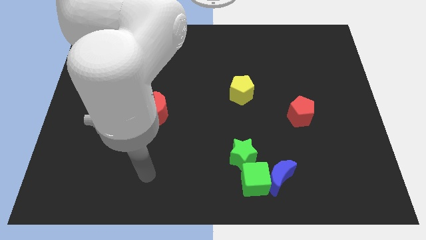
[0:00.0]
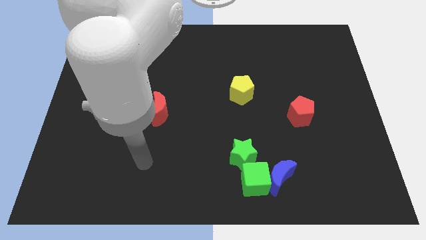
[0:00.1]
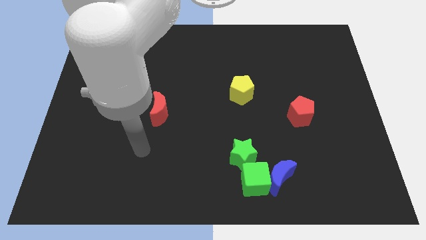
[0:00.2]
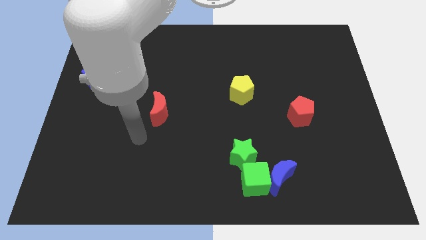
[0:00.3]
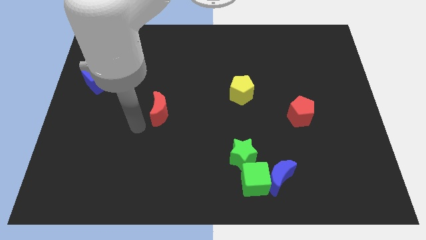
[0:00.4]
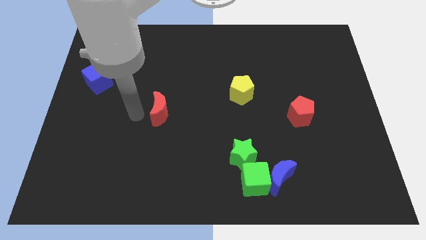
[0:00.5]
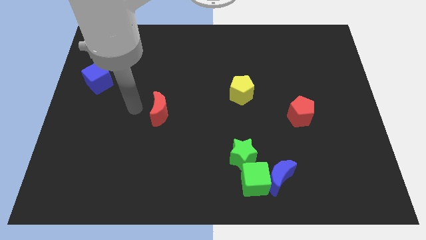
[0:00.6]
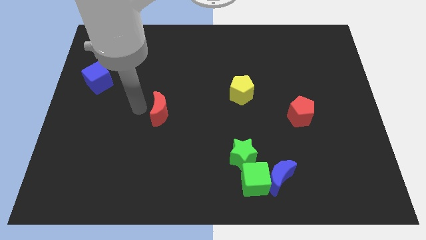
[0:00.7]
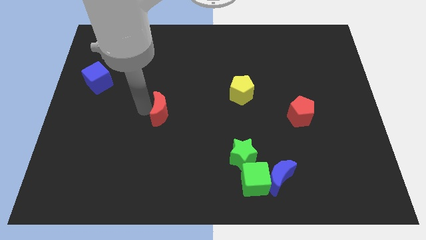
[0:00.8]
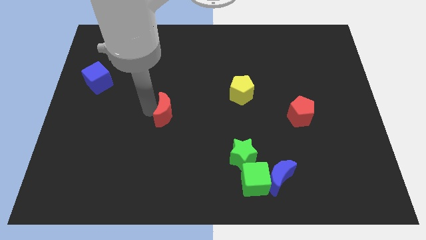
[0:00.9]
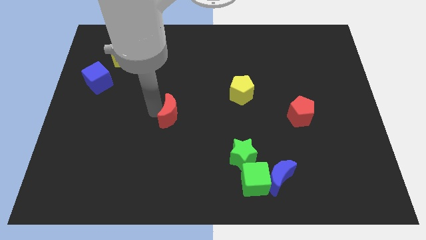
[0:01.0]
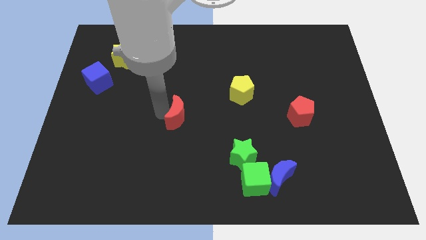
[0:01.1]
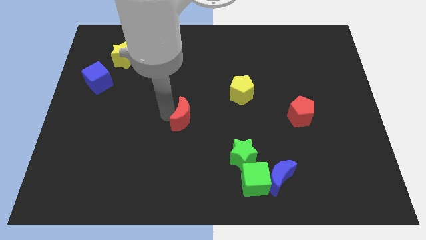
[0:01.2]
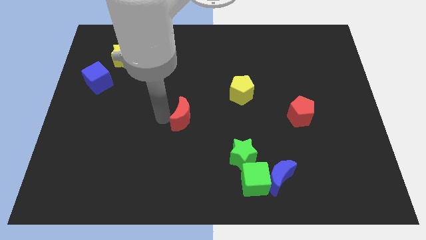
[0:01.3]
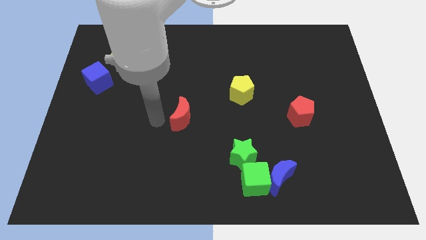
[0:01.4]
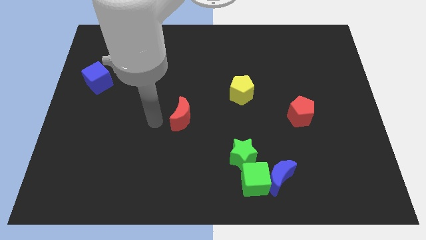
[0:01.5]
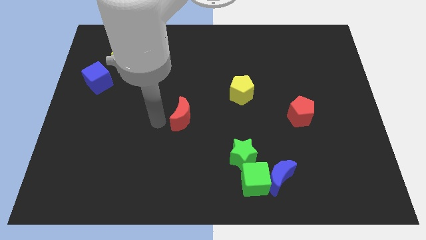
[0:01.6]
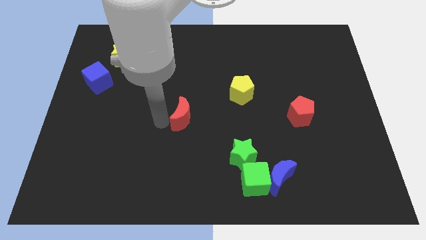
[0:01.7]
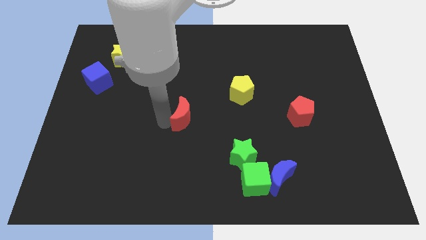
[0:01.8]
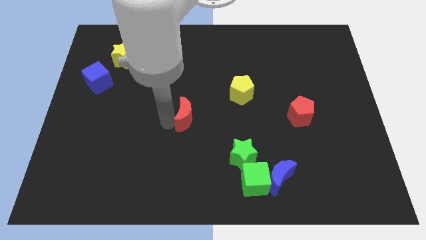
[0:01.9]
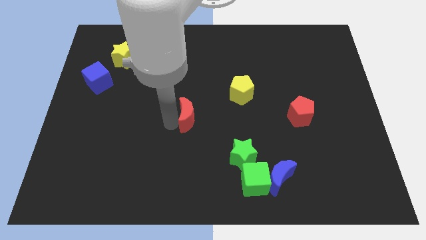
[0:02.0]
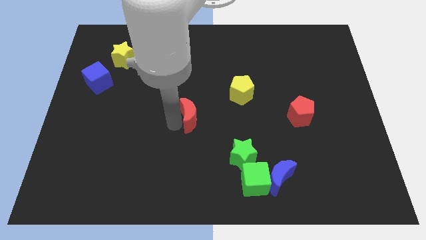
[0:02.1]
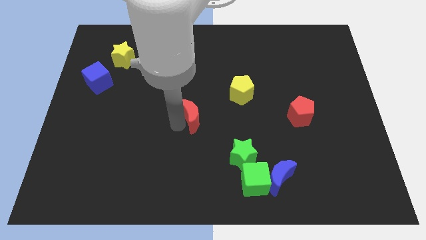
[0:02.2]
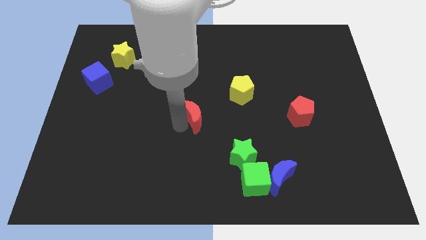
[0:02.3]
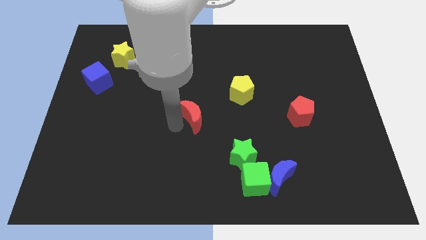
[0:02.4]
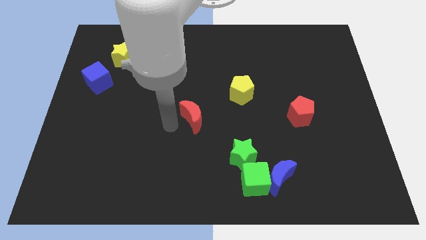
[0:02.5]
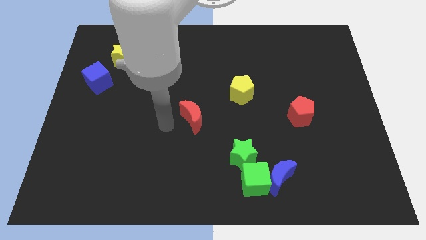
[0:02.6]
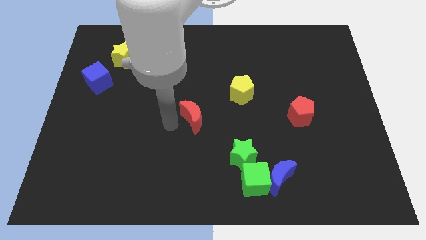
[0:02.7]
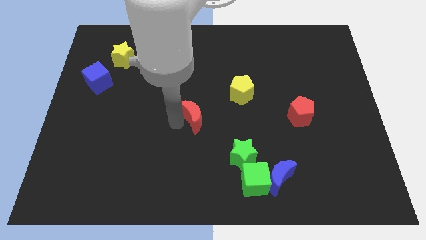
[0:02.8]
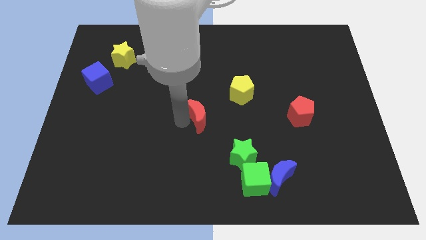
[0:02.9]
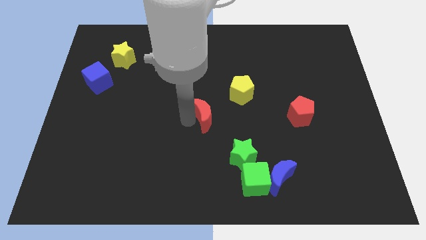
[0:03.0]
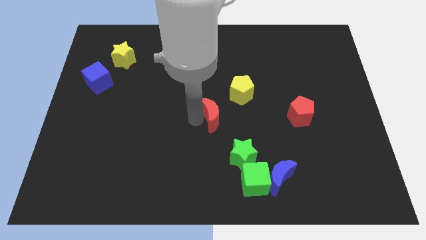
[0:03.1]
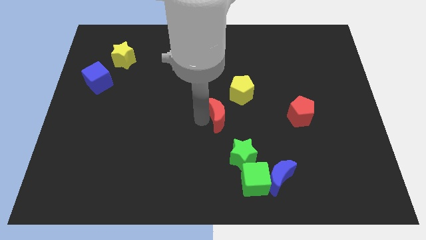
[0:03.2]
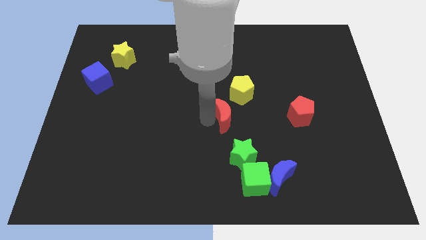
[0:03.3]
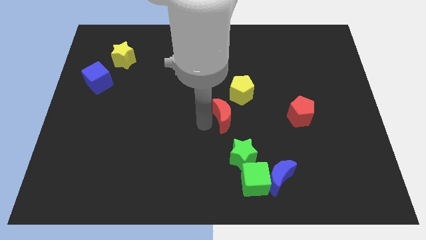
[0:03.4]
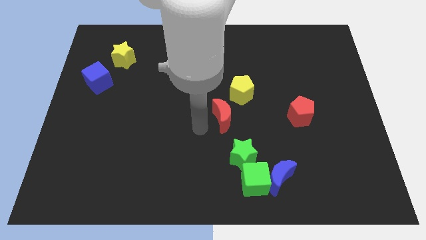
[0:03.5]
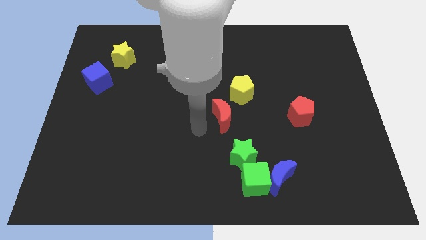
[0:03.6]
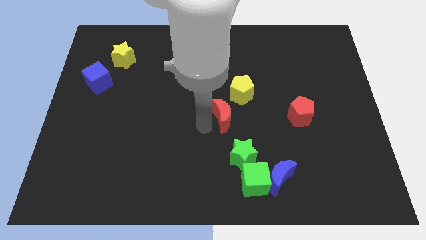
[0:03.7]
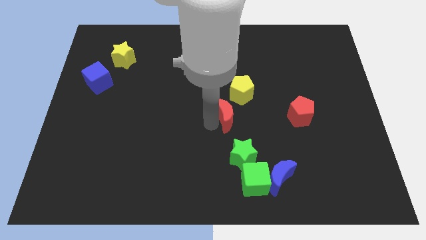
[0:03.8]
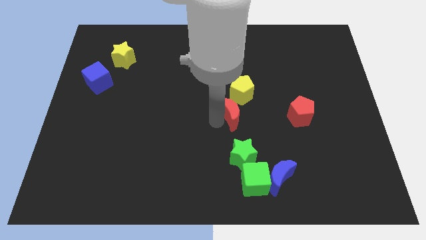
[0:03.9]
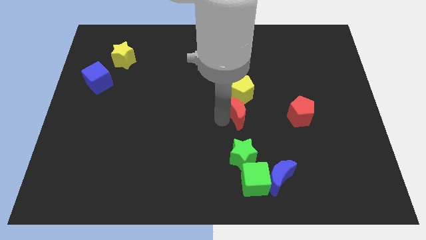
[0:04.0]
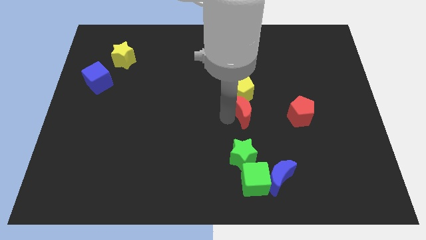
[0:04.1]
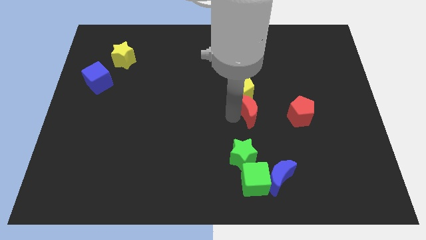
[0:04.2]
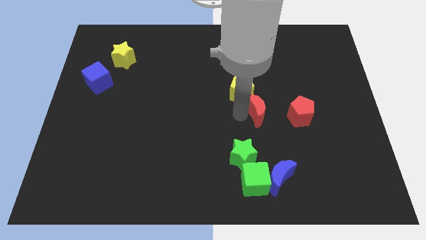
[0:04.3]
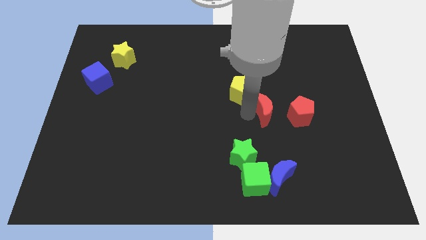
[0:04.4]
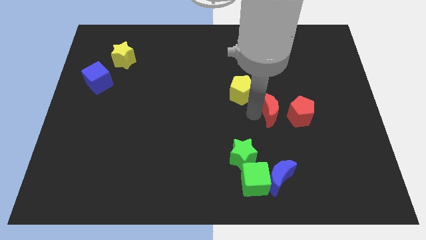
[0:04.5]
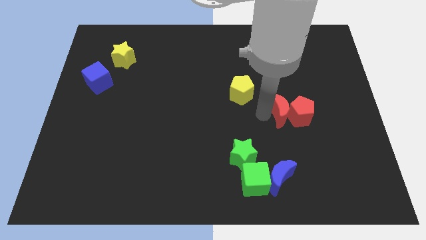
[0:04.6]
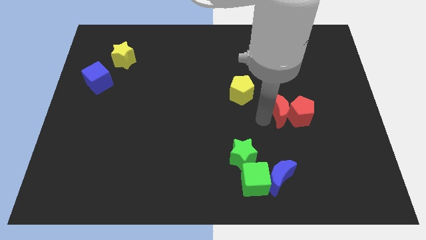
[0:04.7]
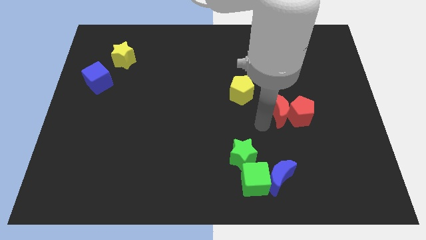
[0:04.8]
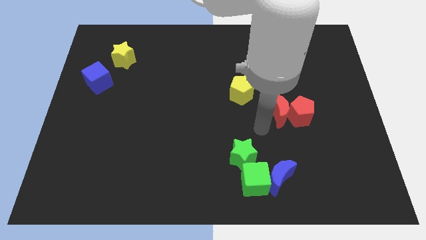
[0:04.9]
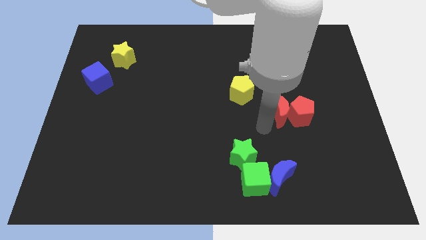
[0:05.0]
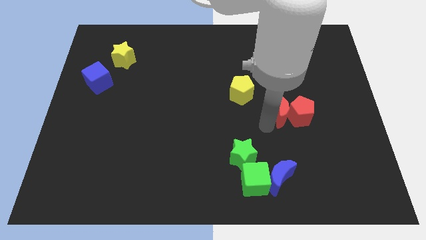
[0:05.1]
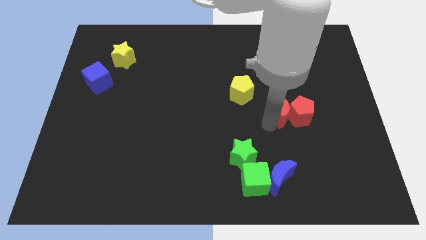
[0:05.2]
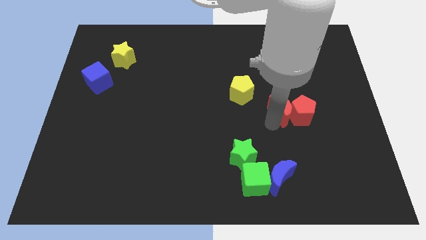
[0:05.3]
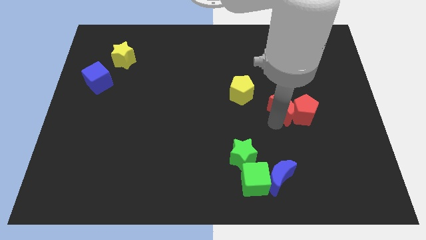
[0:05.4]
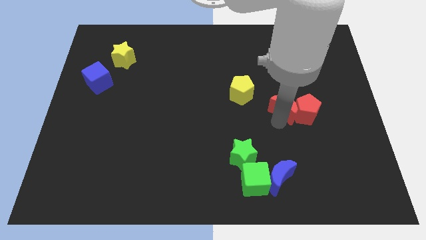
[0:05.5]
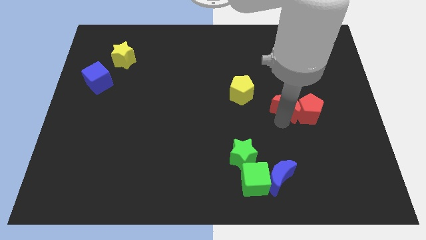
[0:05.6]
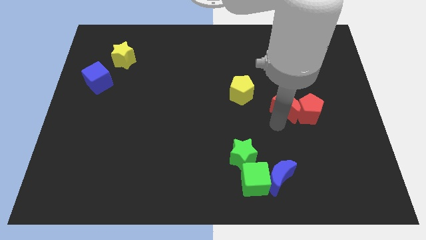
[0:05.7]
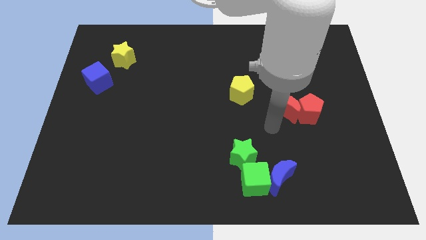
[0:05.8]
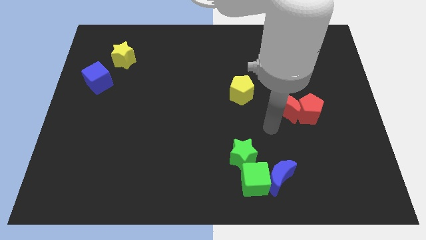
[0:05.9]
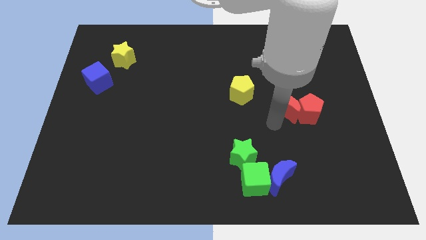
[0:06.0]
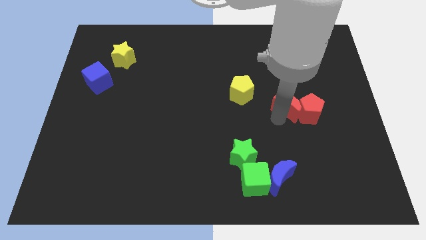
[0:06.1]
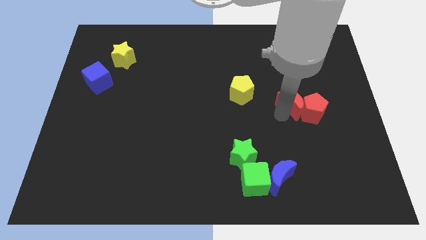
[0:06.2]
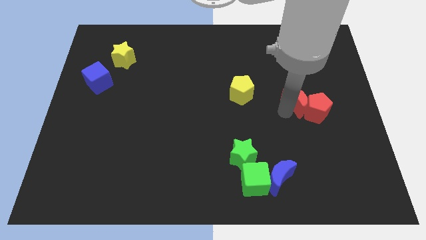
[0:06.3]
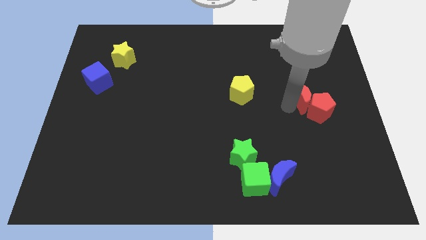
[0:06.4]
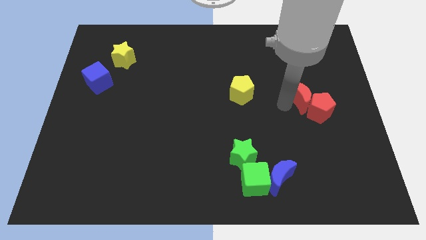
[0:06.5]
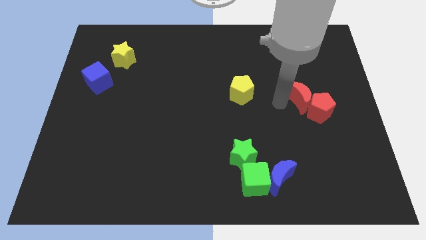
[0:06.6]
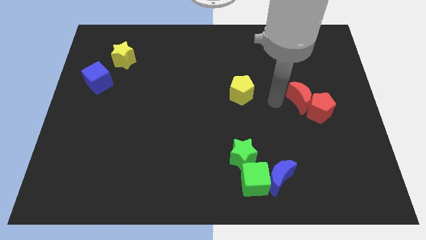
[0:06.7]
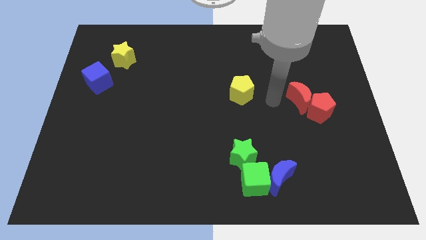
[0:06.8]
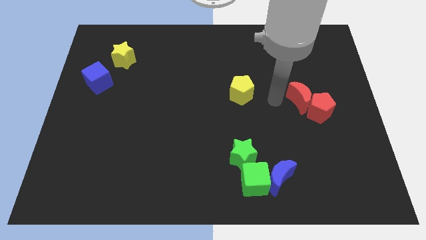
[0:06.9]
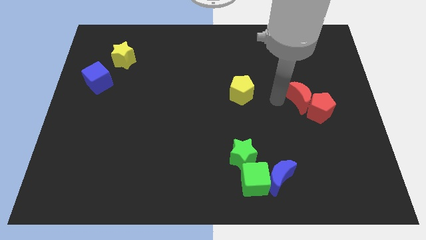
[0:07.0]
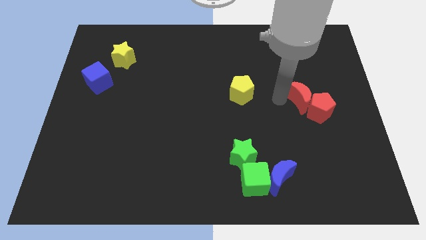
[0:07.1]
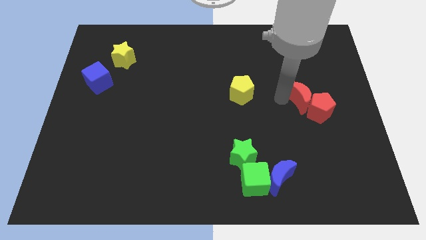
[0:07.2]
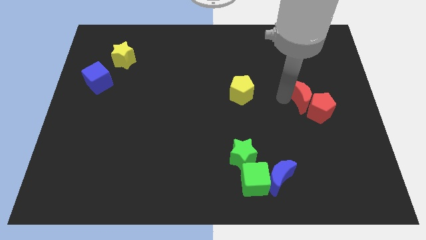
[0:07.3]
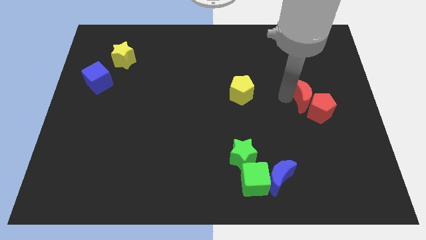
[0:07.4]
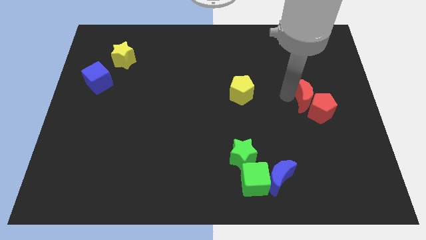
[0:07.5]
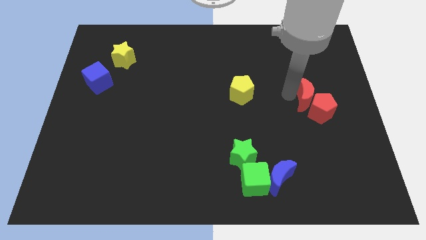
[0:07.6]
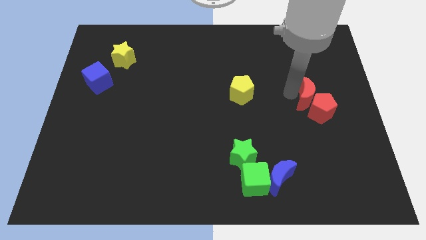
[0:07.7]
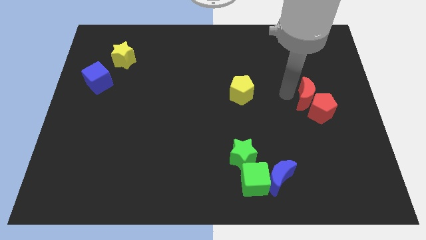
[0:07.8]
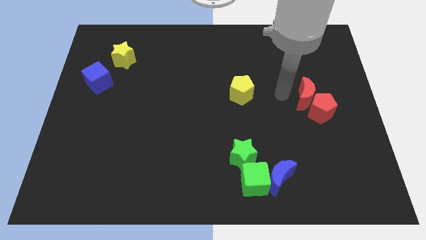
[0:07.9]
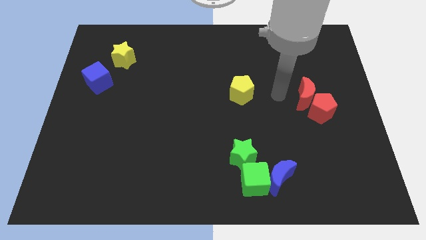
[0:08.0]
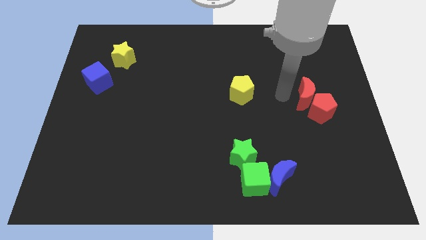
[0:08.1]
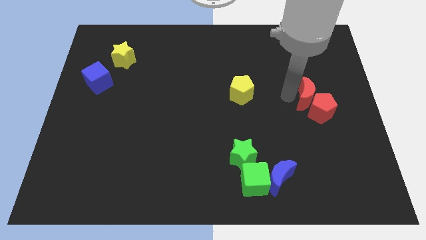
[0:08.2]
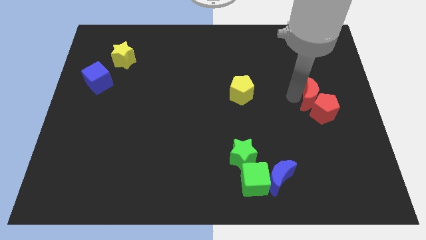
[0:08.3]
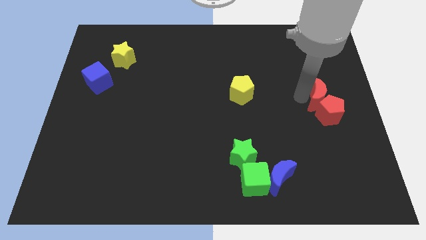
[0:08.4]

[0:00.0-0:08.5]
move the red moon to the right side
